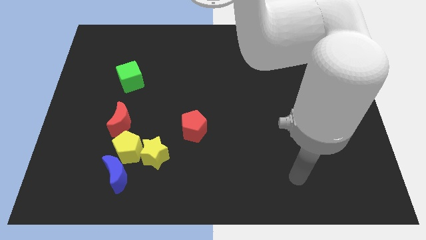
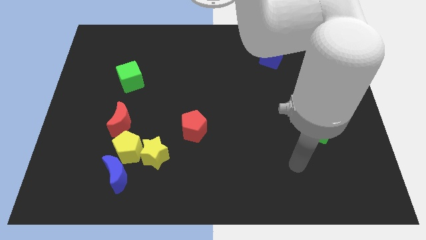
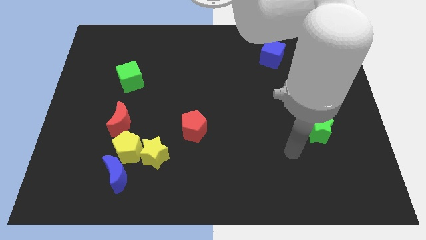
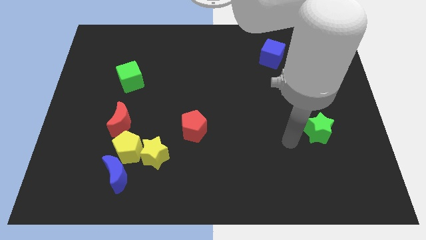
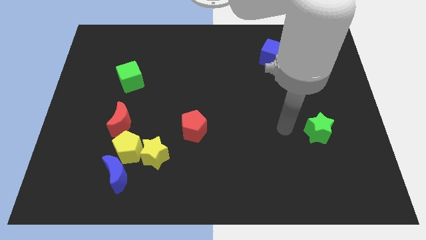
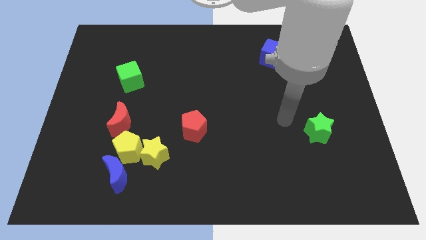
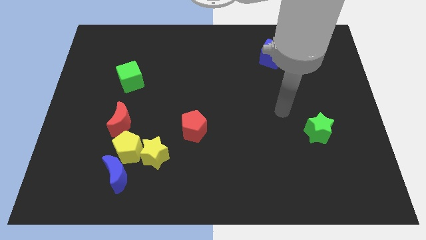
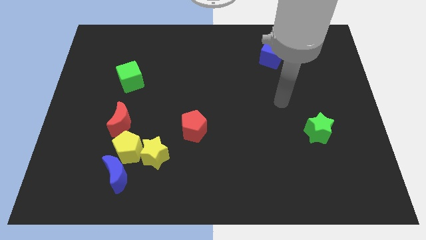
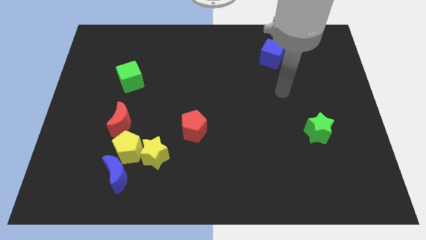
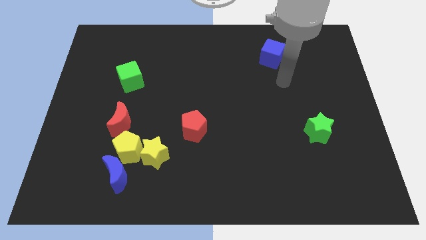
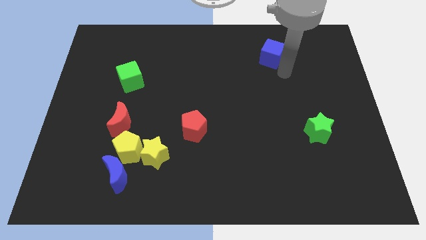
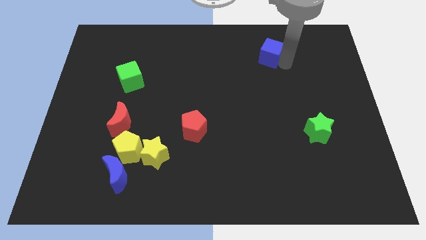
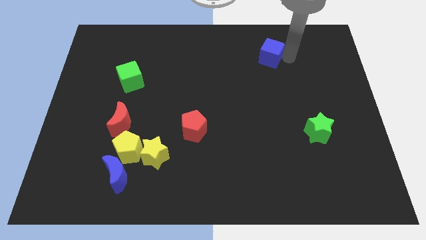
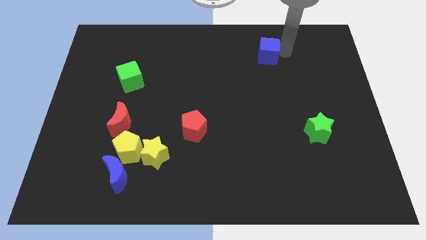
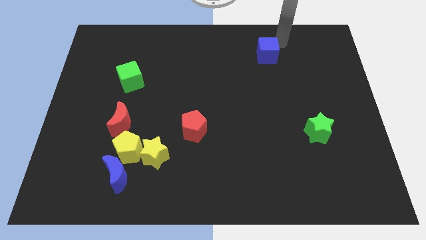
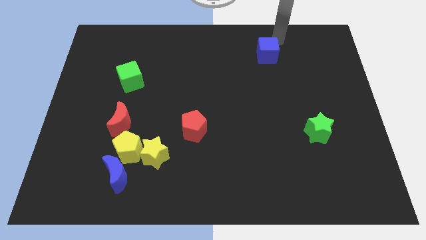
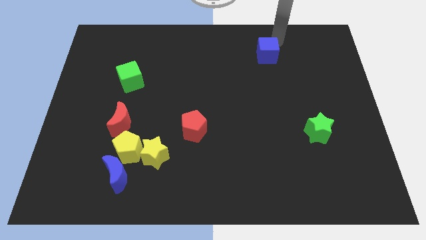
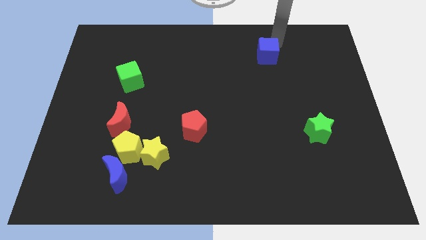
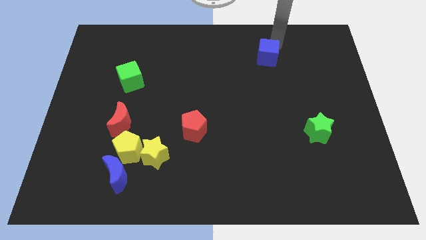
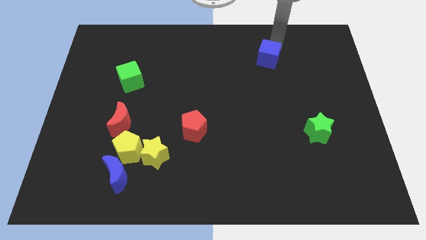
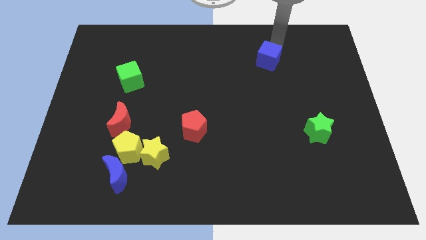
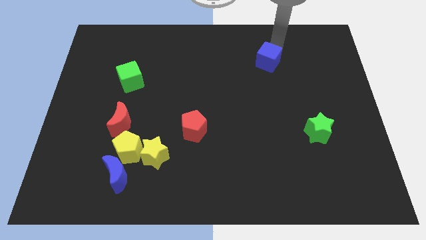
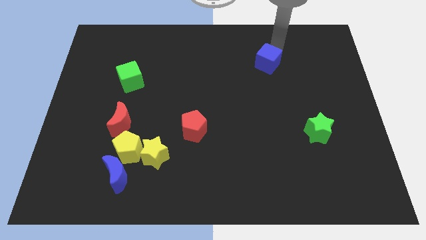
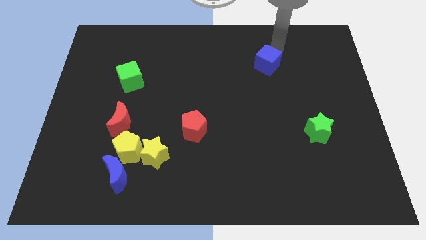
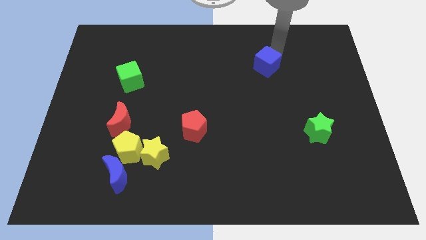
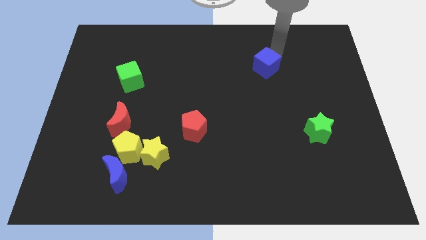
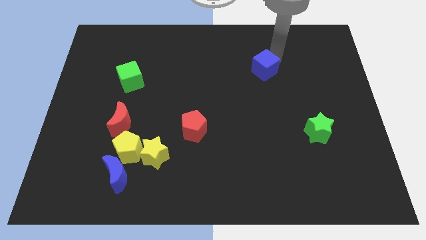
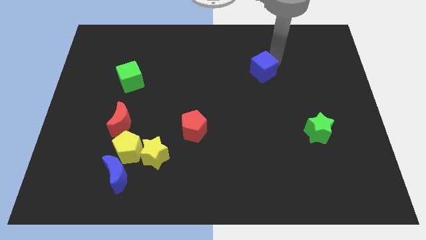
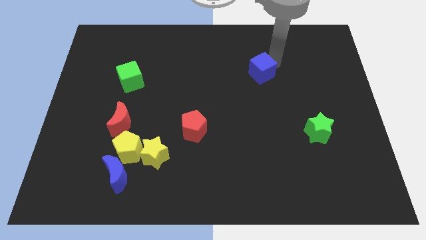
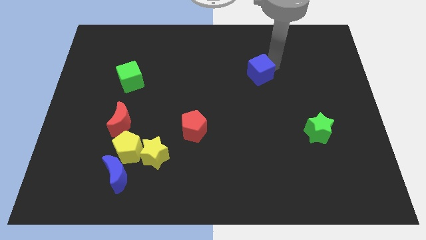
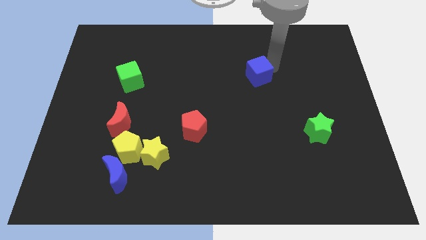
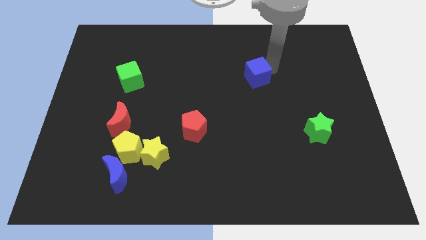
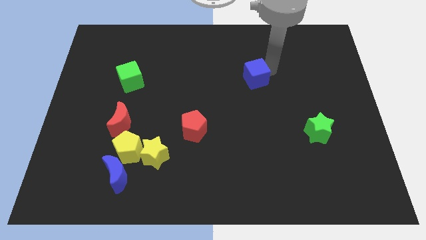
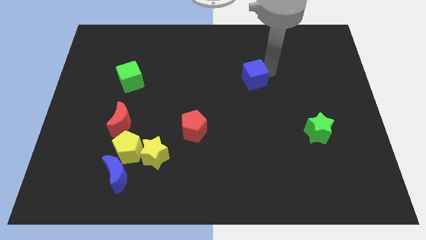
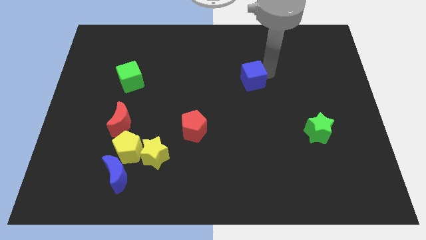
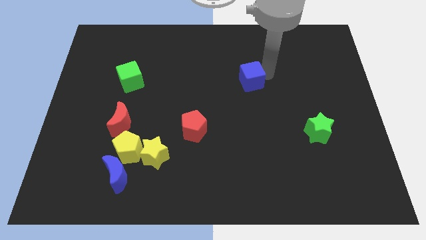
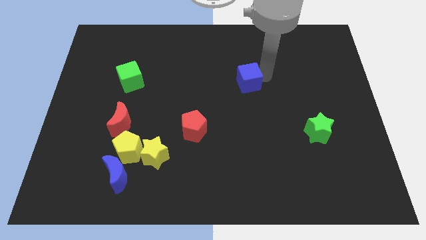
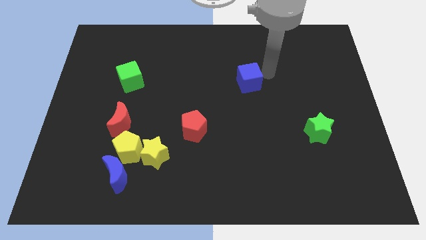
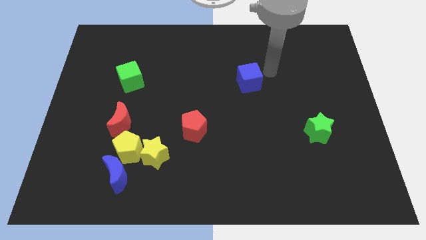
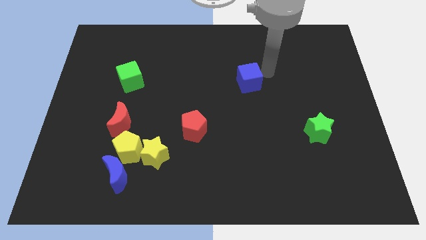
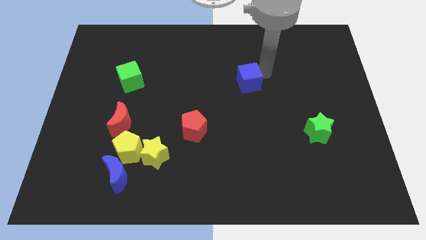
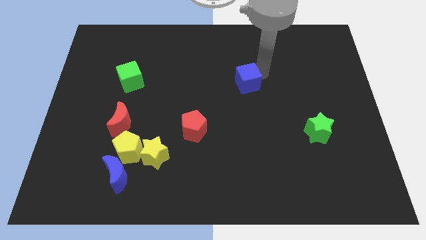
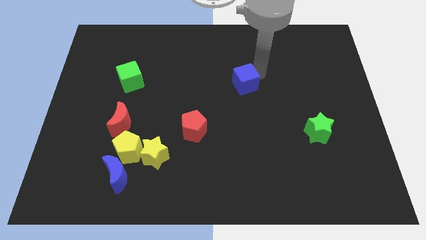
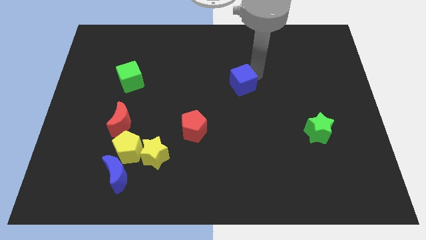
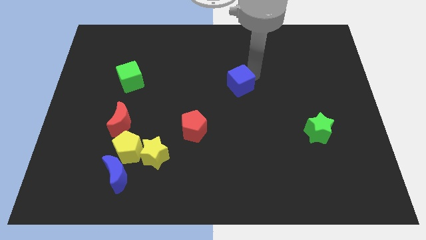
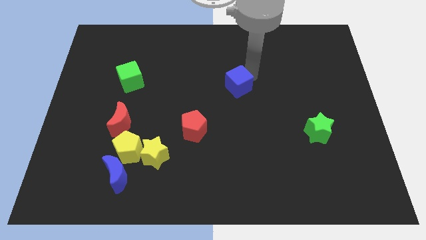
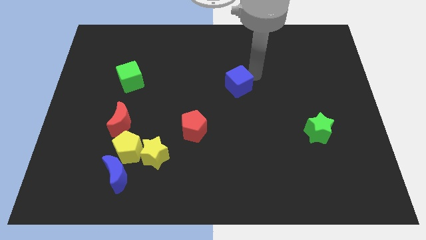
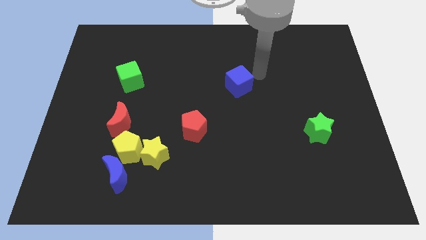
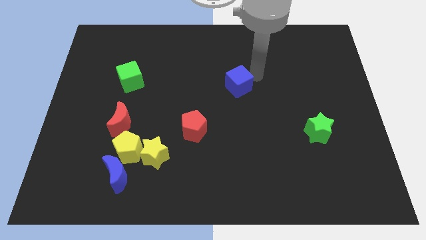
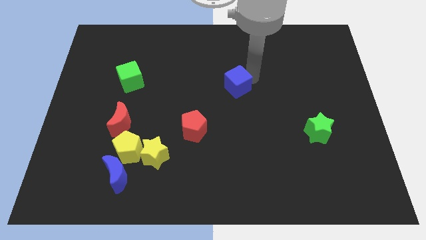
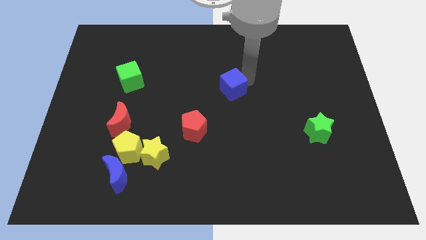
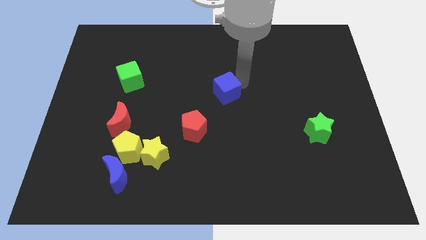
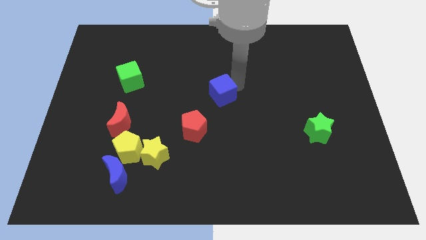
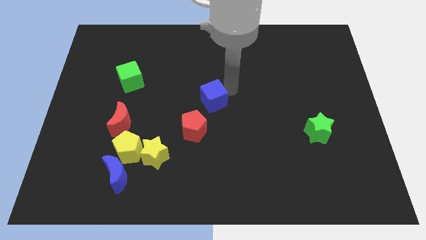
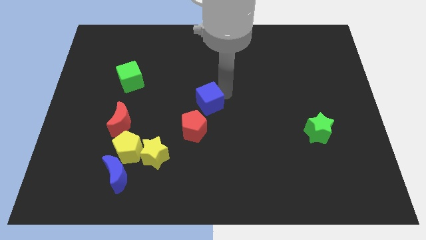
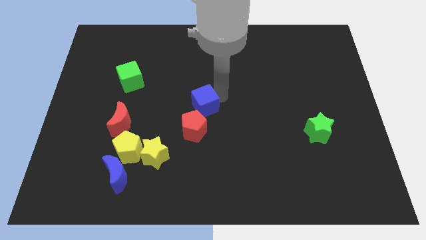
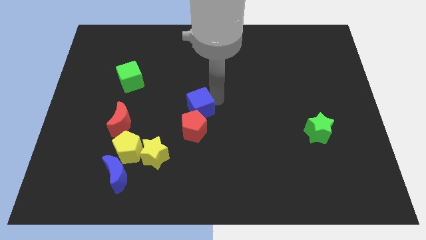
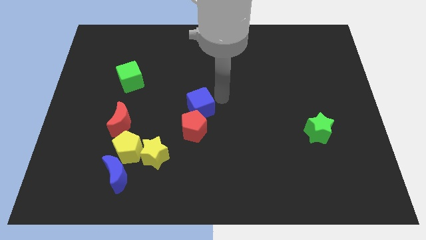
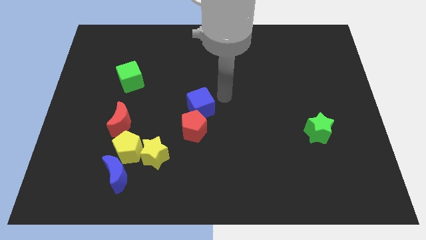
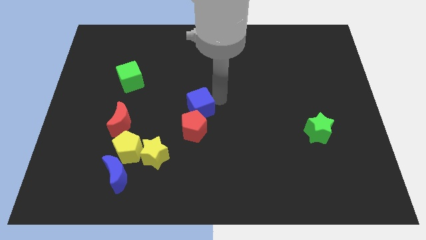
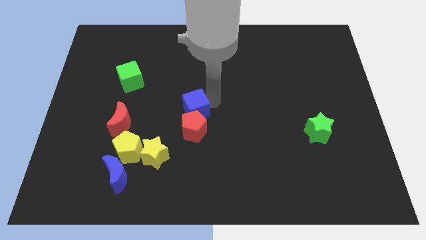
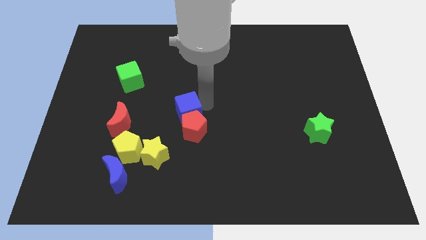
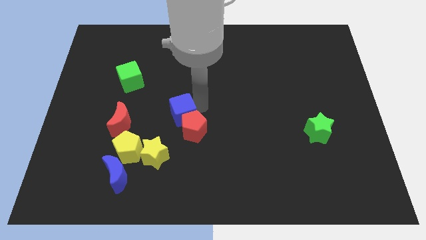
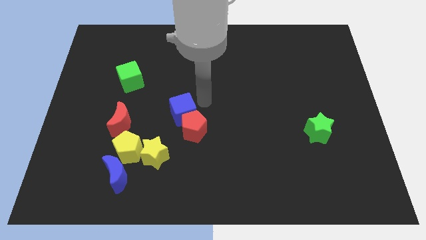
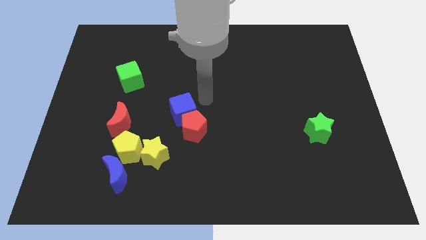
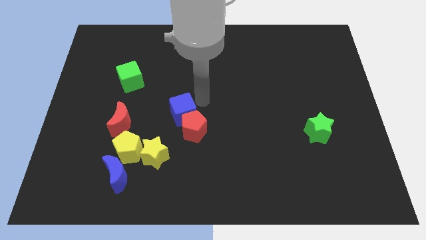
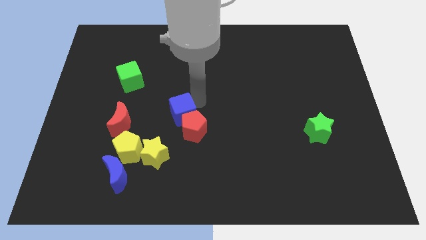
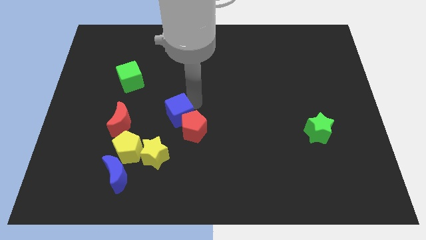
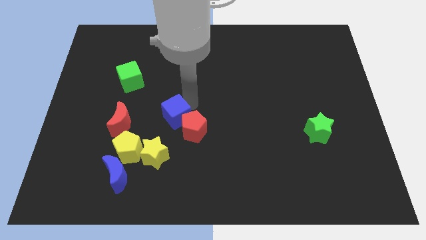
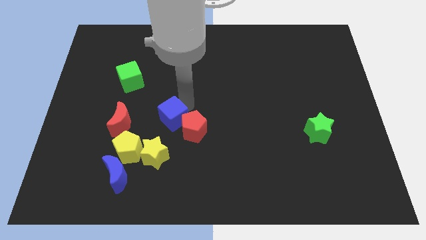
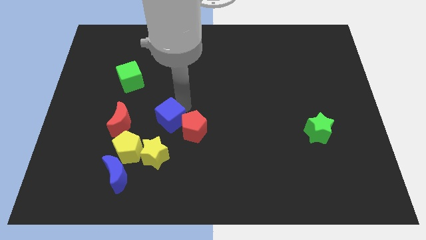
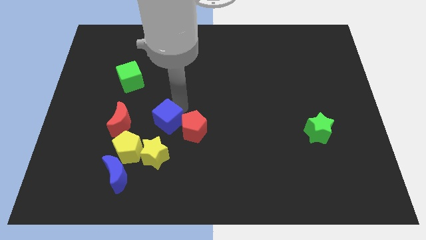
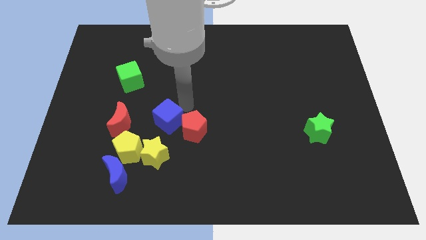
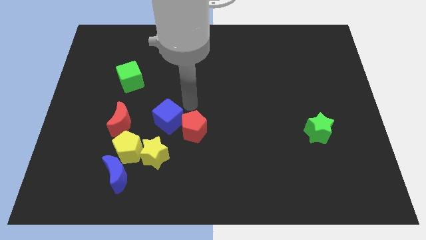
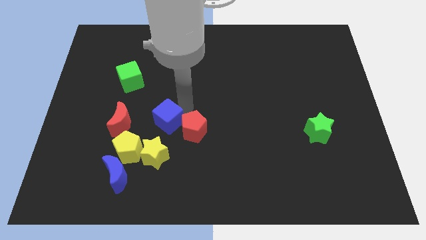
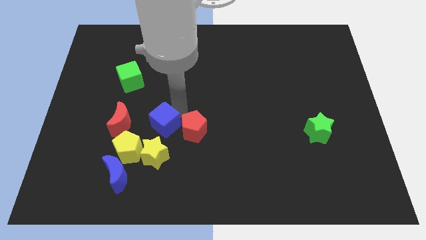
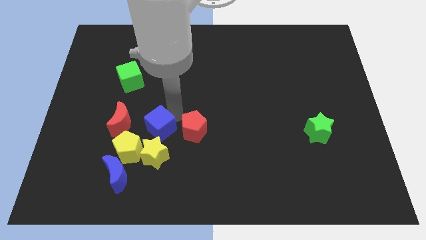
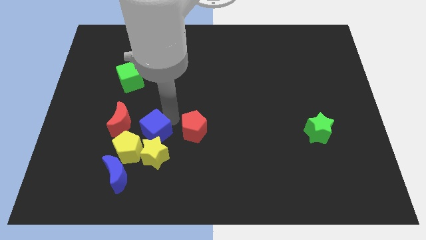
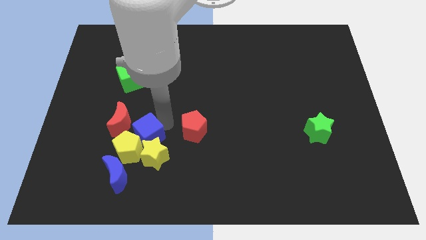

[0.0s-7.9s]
put the blue cube towards the yellow pentagon
